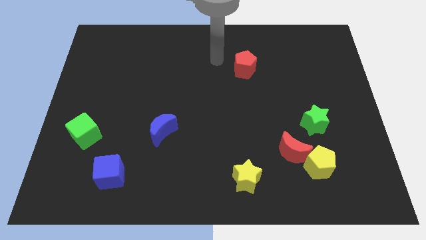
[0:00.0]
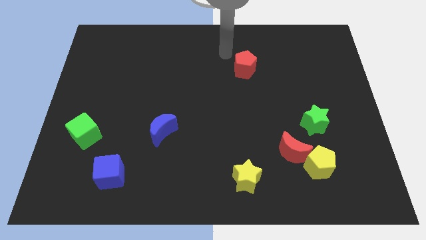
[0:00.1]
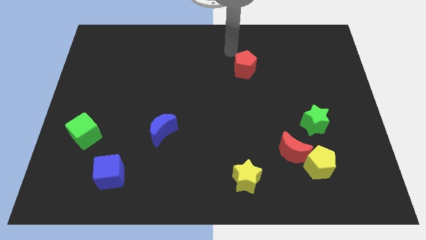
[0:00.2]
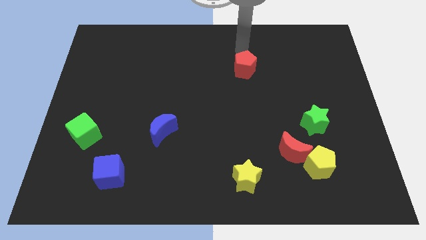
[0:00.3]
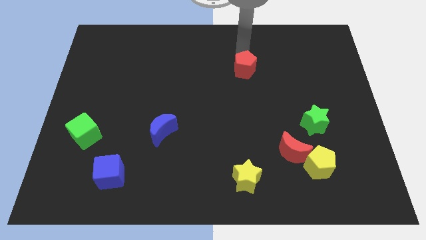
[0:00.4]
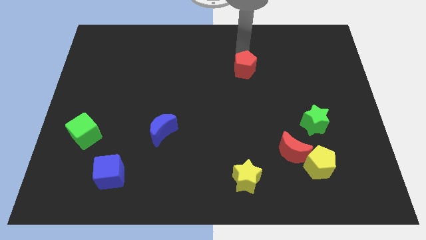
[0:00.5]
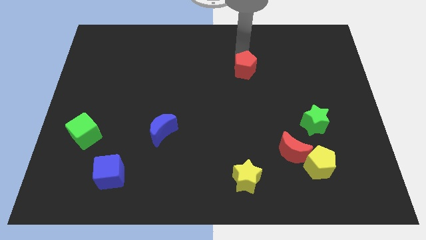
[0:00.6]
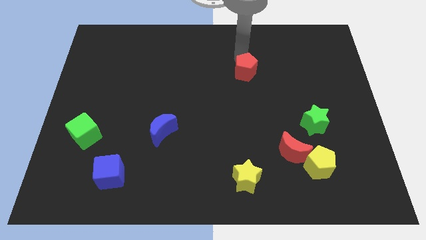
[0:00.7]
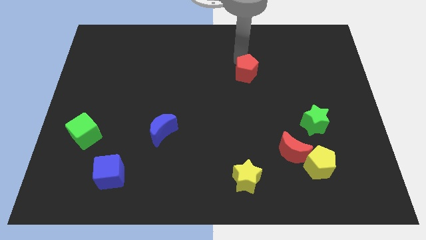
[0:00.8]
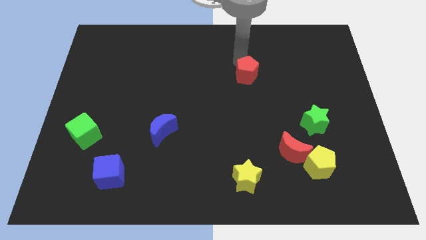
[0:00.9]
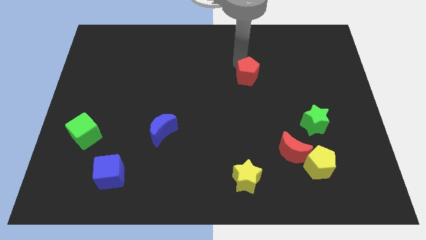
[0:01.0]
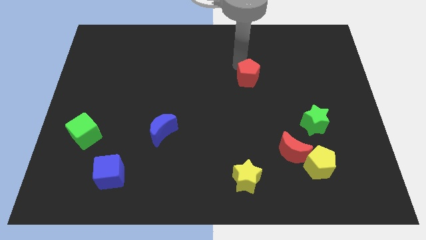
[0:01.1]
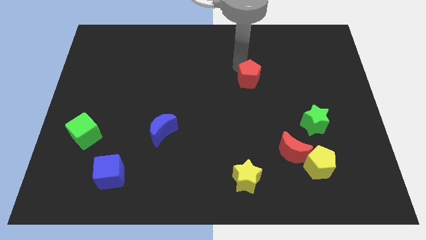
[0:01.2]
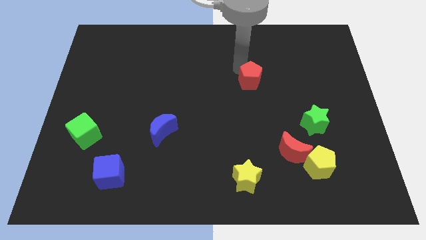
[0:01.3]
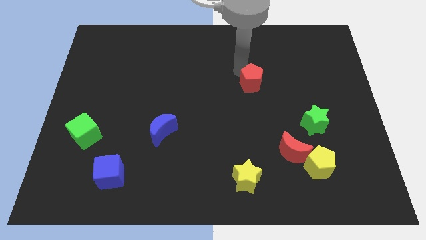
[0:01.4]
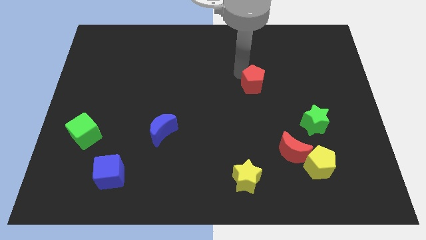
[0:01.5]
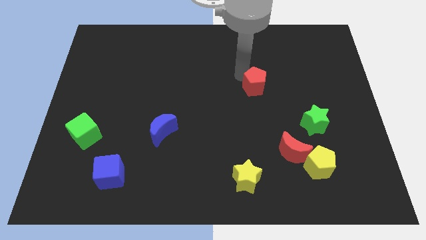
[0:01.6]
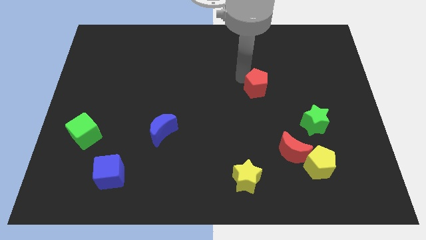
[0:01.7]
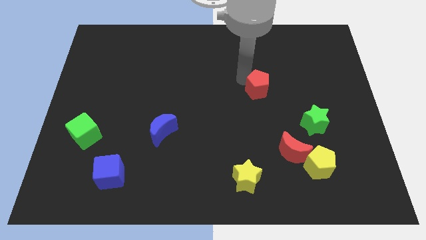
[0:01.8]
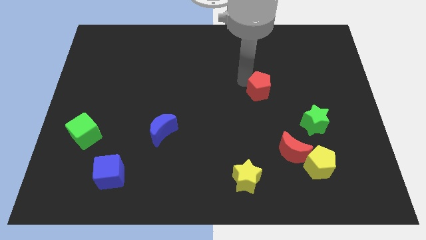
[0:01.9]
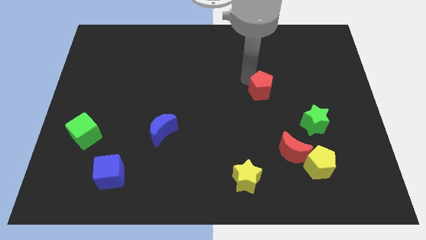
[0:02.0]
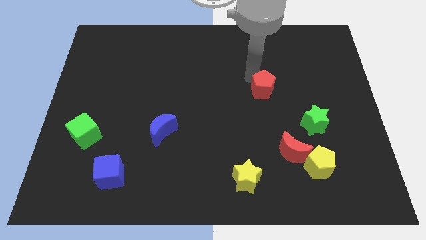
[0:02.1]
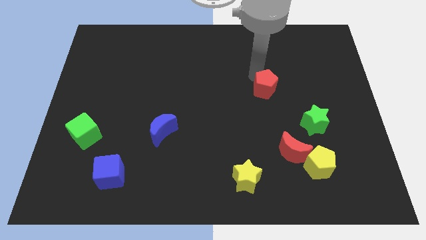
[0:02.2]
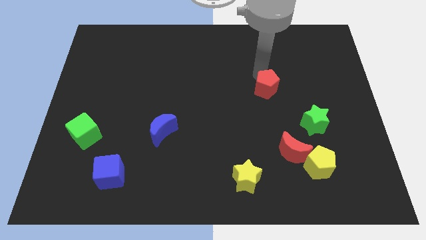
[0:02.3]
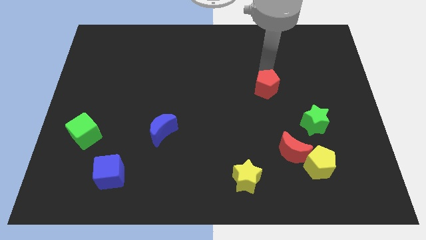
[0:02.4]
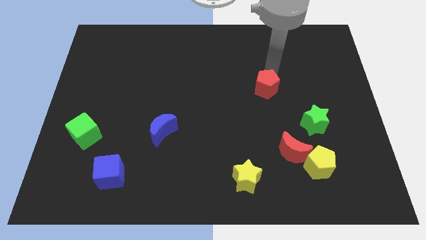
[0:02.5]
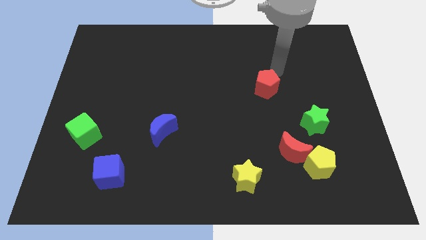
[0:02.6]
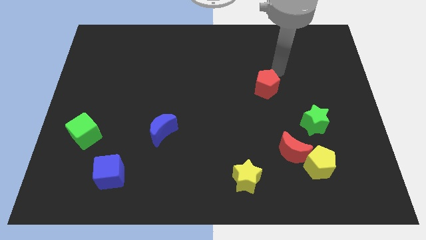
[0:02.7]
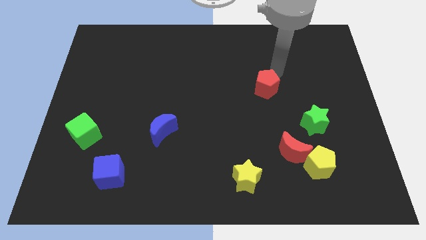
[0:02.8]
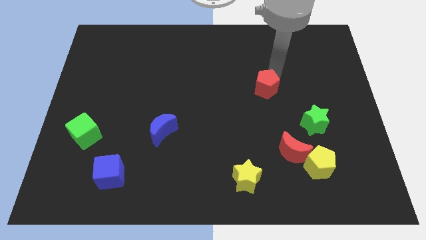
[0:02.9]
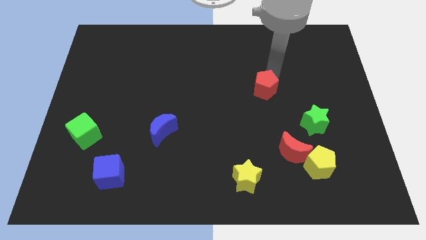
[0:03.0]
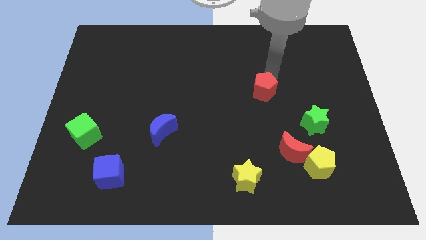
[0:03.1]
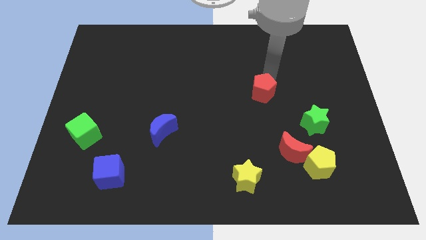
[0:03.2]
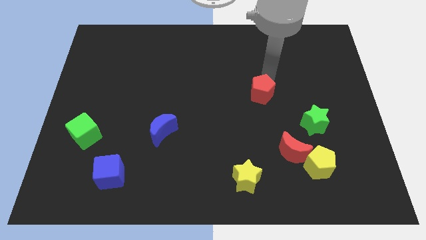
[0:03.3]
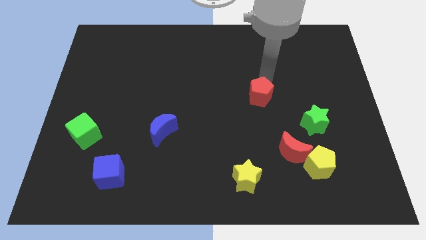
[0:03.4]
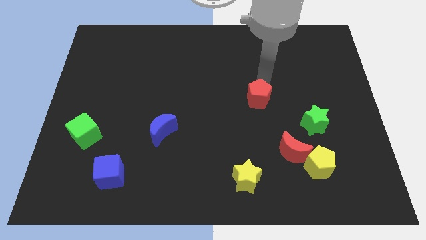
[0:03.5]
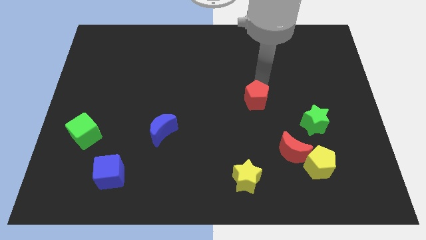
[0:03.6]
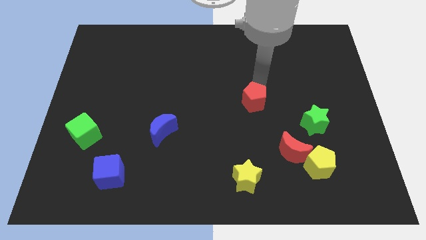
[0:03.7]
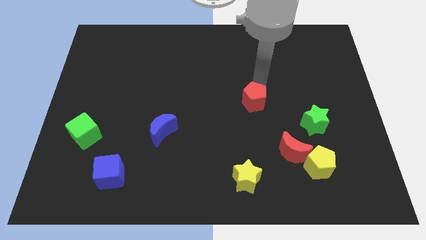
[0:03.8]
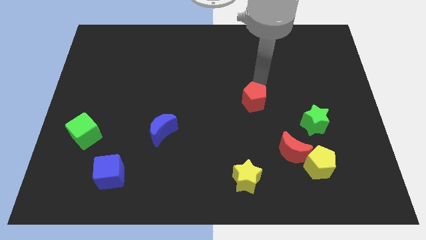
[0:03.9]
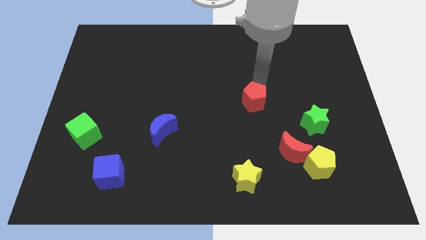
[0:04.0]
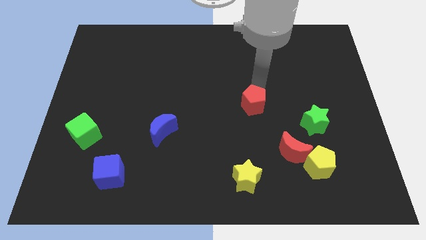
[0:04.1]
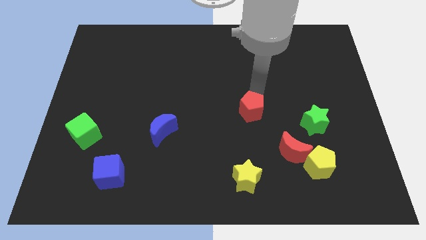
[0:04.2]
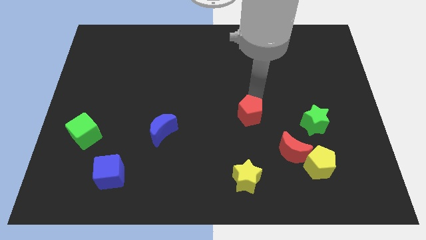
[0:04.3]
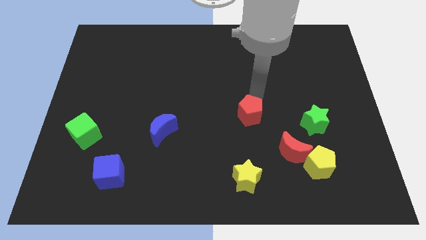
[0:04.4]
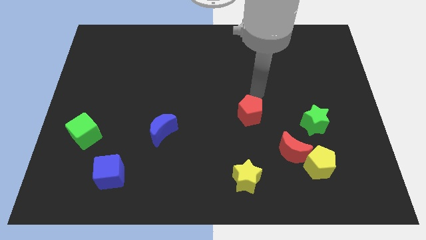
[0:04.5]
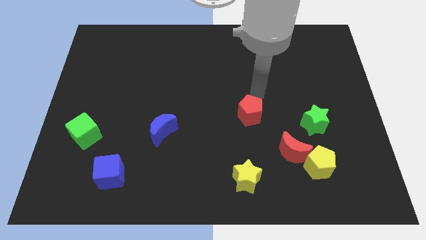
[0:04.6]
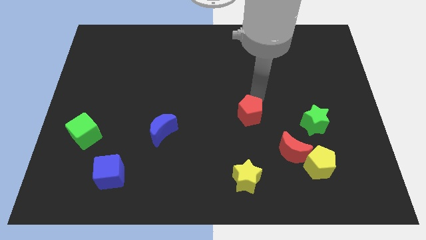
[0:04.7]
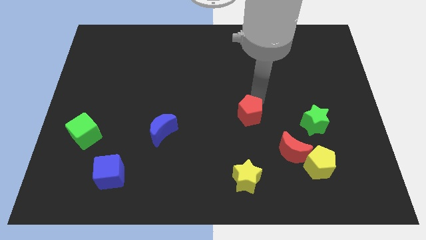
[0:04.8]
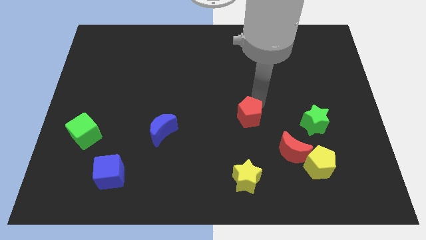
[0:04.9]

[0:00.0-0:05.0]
slide the red pentagon above the yellow star

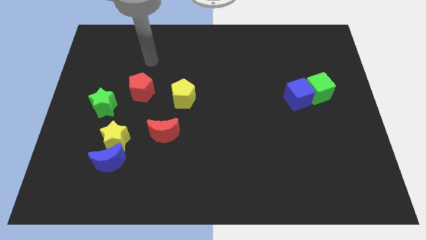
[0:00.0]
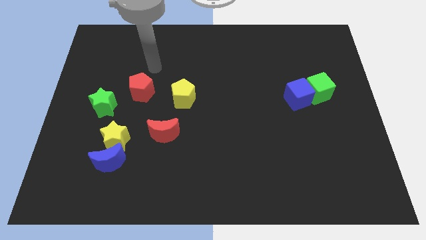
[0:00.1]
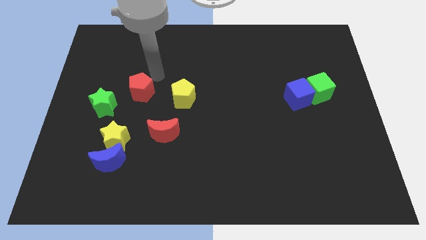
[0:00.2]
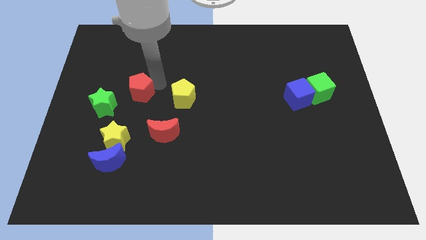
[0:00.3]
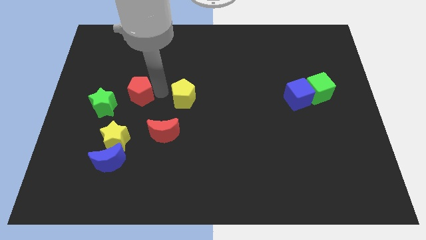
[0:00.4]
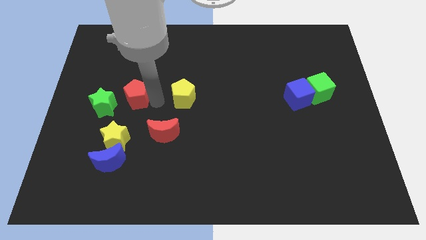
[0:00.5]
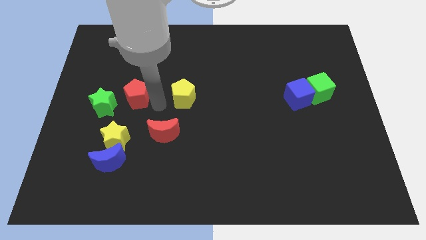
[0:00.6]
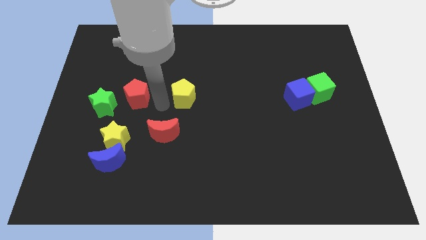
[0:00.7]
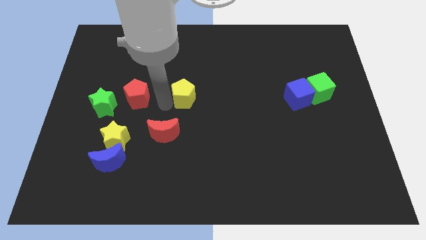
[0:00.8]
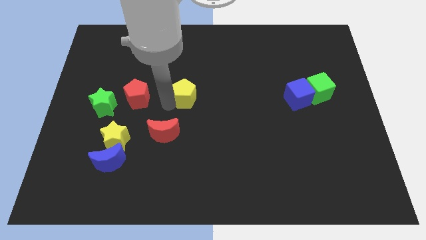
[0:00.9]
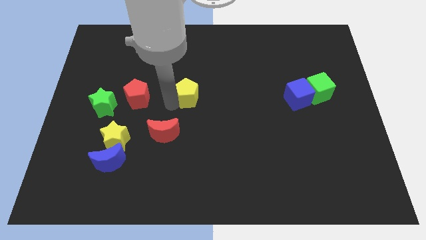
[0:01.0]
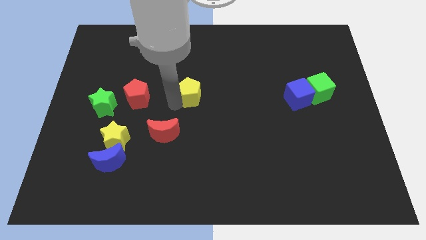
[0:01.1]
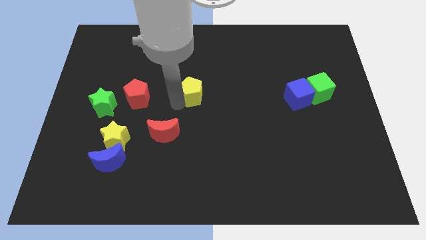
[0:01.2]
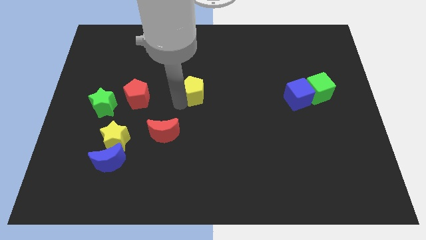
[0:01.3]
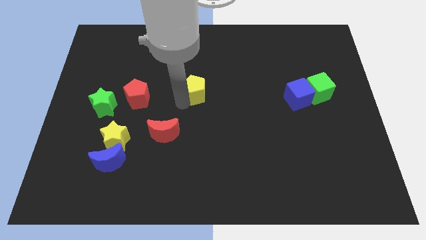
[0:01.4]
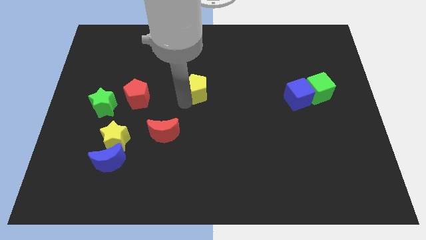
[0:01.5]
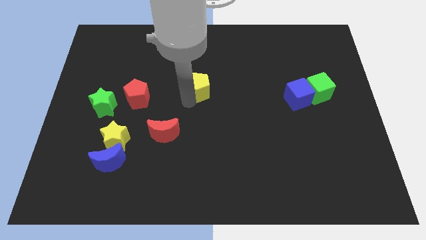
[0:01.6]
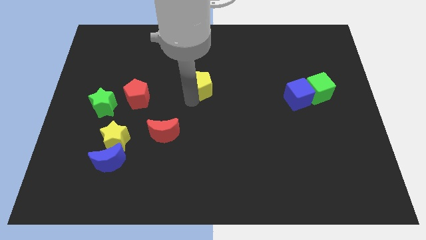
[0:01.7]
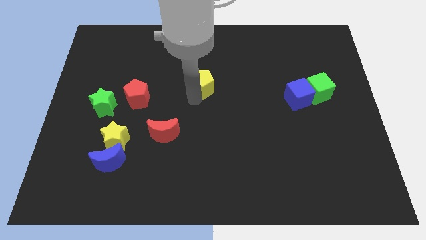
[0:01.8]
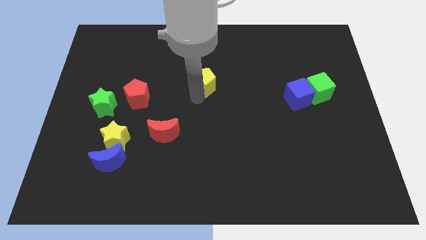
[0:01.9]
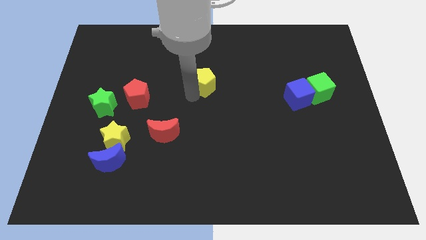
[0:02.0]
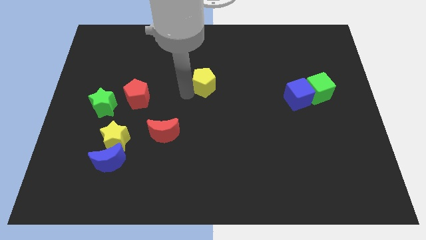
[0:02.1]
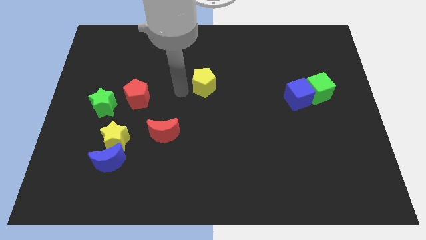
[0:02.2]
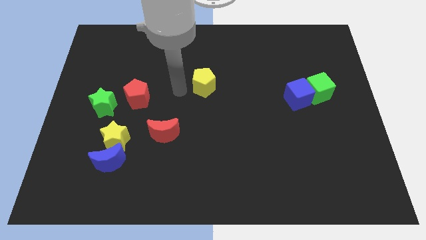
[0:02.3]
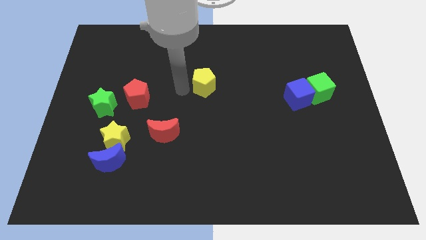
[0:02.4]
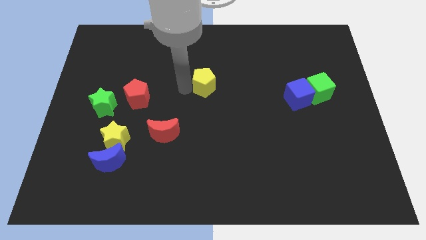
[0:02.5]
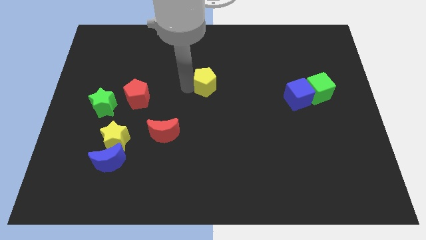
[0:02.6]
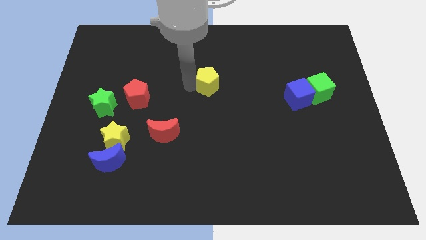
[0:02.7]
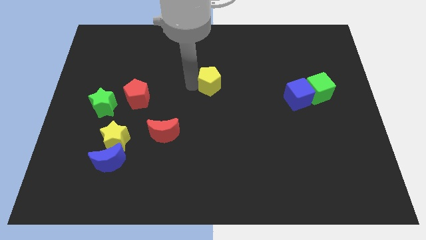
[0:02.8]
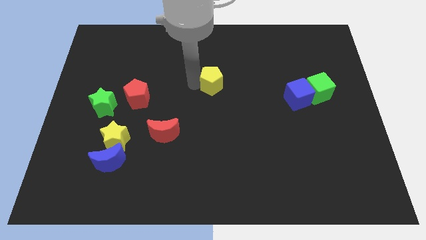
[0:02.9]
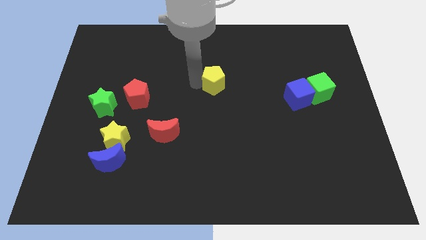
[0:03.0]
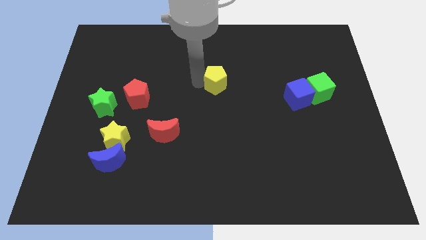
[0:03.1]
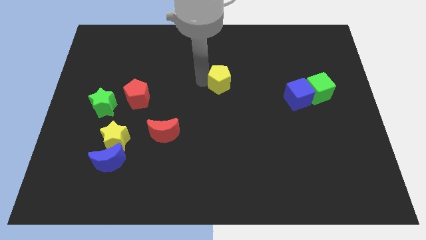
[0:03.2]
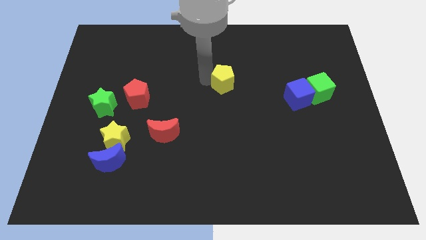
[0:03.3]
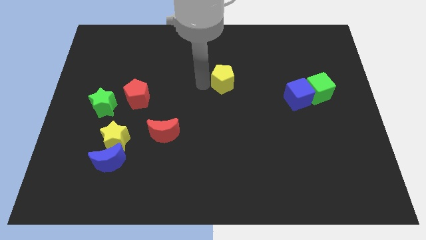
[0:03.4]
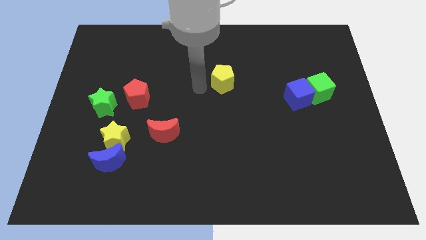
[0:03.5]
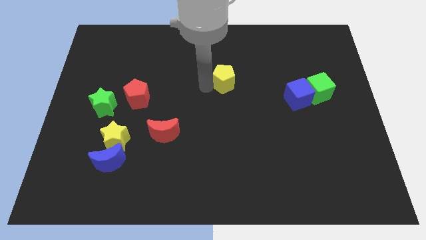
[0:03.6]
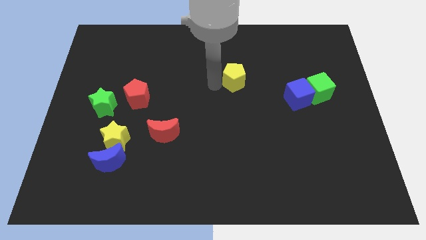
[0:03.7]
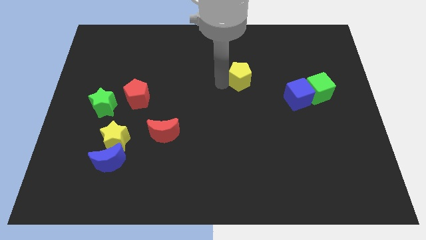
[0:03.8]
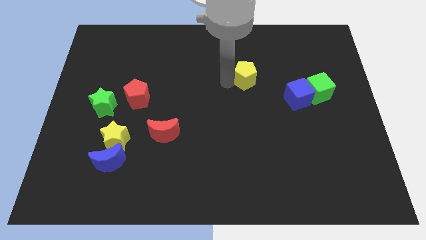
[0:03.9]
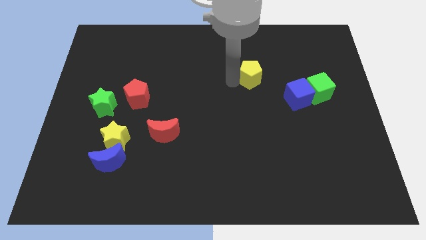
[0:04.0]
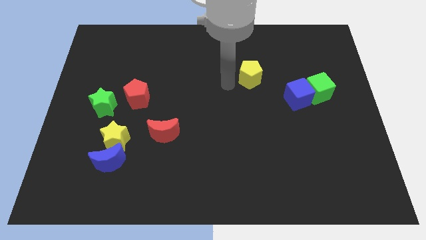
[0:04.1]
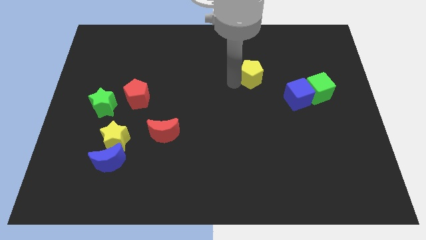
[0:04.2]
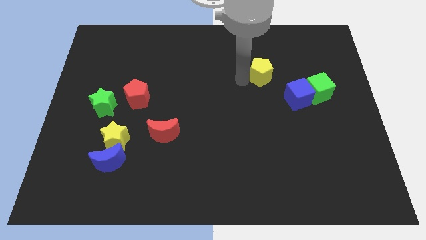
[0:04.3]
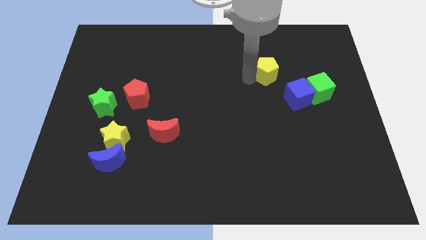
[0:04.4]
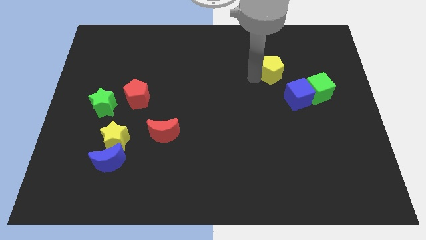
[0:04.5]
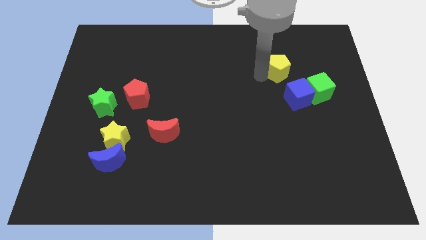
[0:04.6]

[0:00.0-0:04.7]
slide the yellow pentagon to the top side of the blue cube
